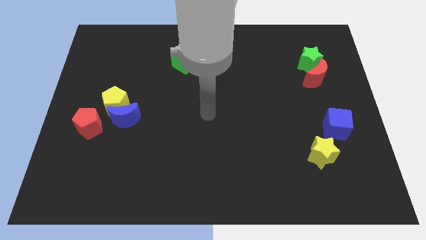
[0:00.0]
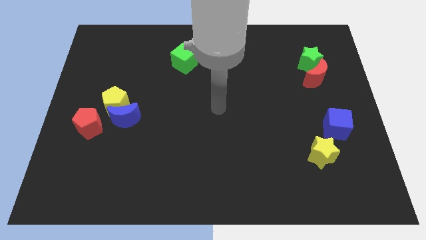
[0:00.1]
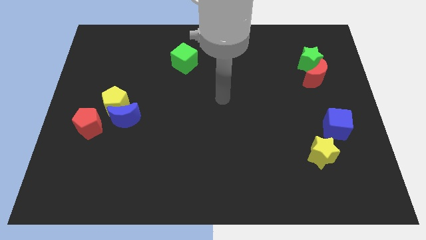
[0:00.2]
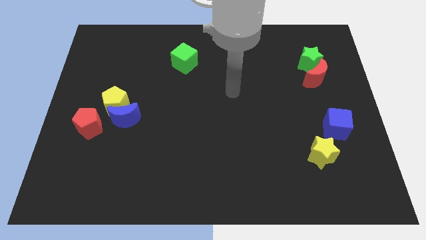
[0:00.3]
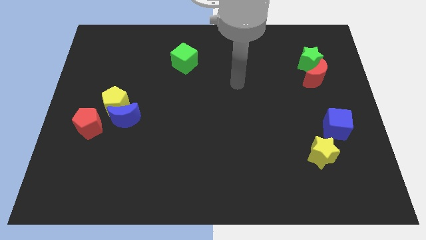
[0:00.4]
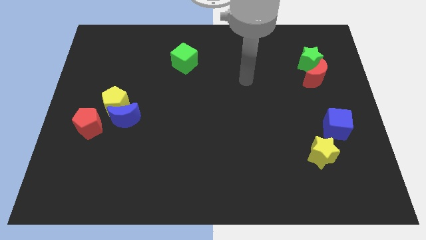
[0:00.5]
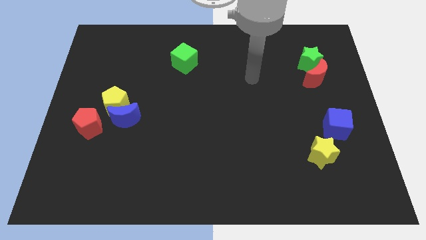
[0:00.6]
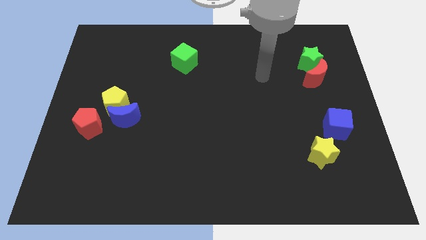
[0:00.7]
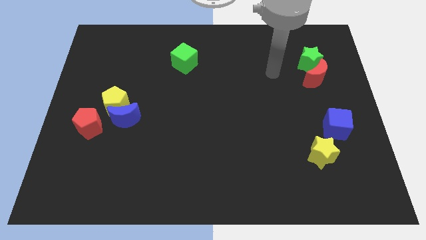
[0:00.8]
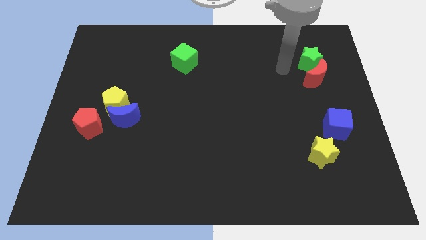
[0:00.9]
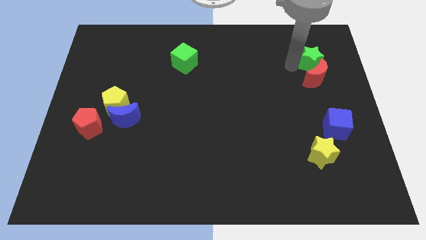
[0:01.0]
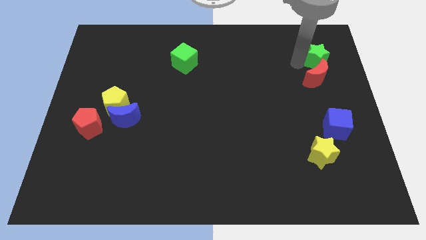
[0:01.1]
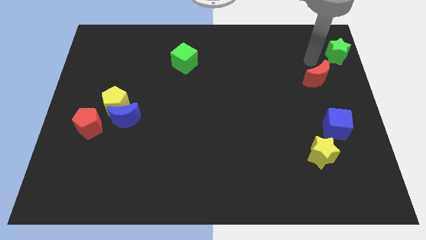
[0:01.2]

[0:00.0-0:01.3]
move the red moon away from the green star

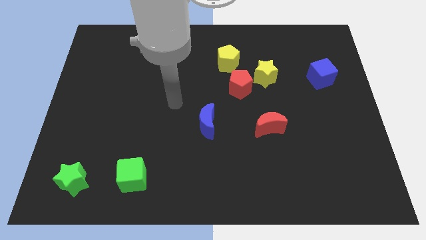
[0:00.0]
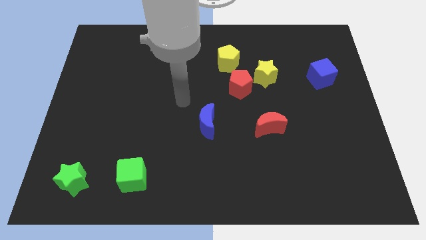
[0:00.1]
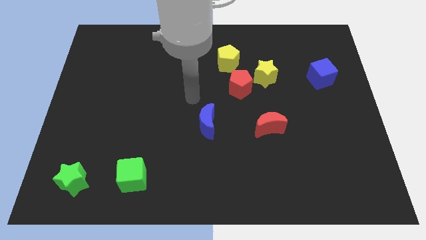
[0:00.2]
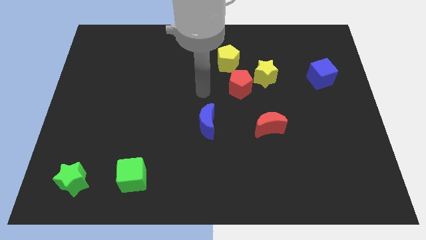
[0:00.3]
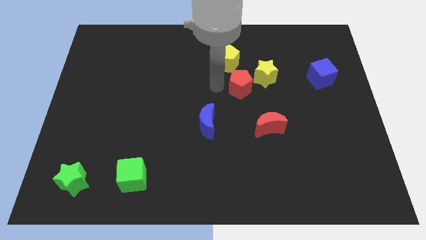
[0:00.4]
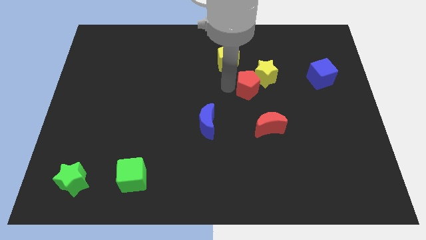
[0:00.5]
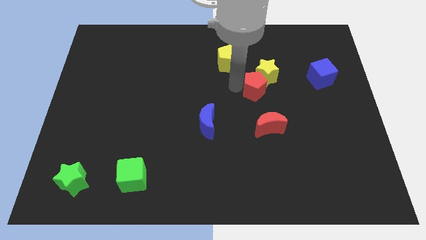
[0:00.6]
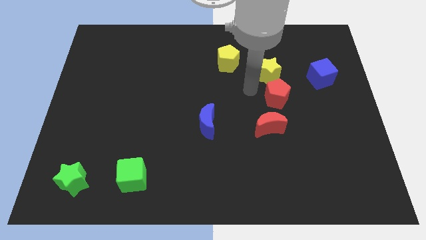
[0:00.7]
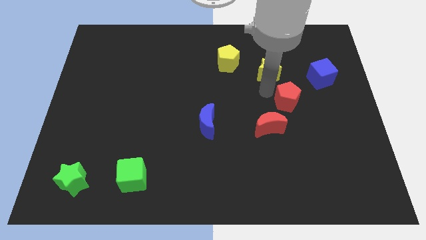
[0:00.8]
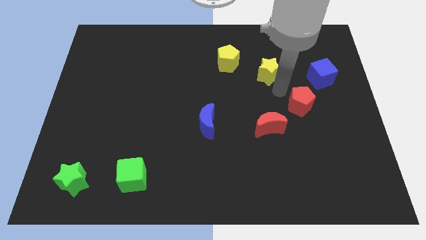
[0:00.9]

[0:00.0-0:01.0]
move the yellow star away from the red pentagon

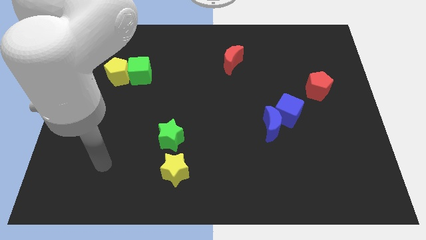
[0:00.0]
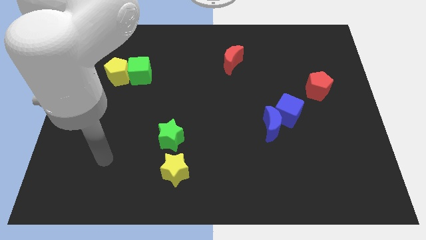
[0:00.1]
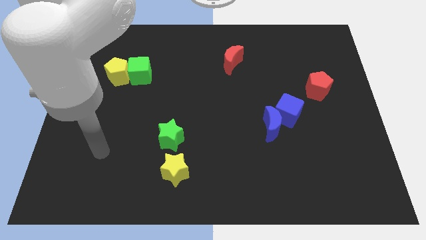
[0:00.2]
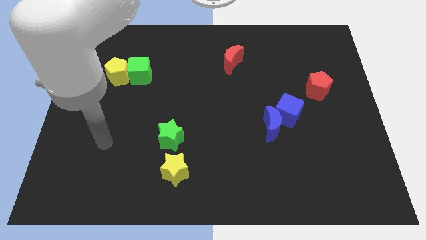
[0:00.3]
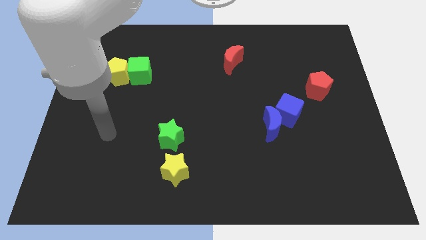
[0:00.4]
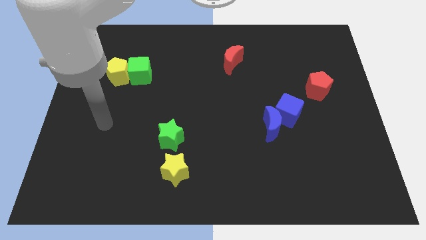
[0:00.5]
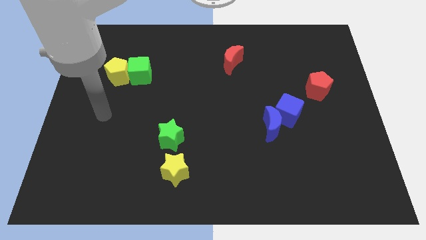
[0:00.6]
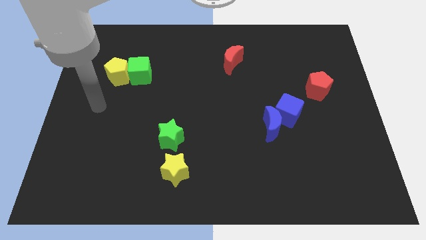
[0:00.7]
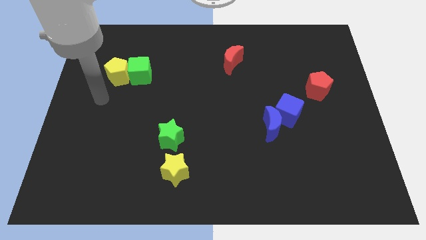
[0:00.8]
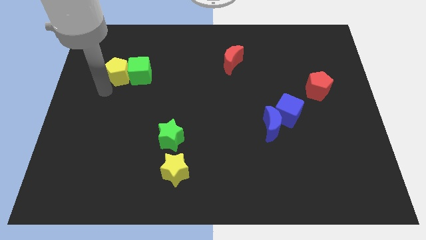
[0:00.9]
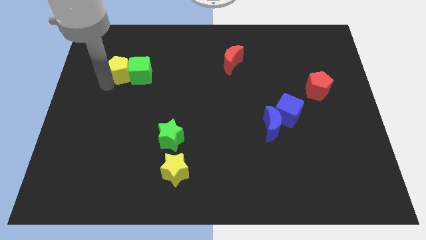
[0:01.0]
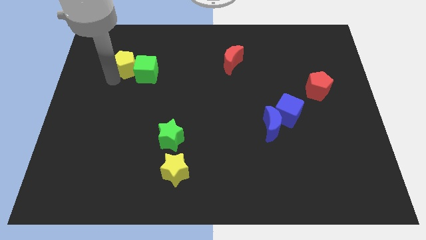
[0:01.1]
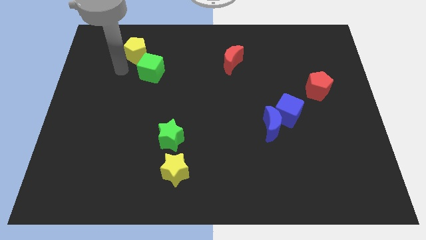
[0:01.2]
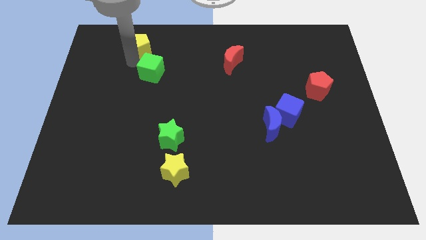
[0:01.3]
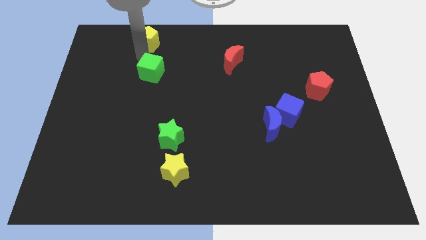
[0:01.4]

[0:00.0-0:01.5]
separate the green cube from the yellow pentagon

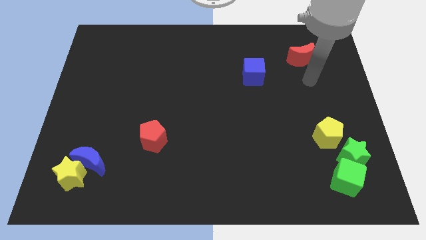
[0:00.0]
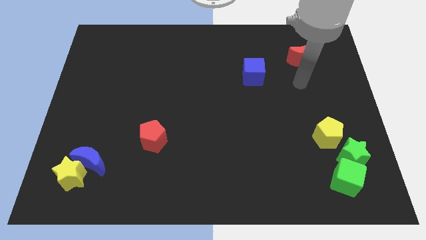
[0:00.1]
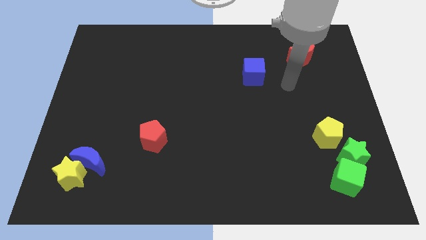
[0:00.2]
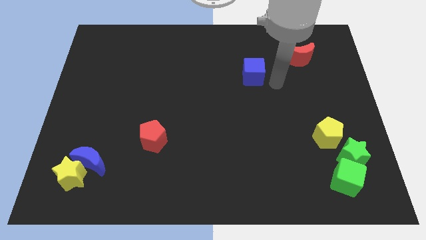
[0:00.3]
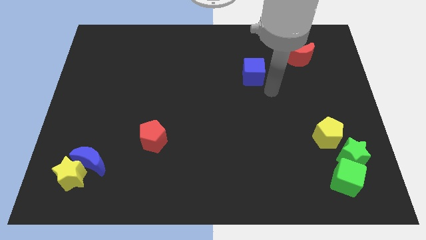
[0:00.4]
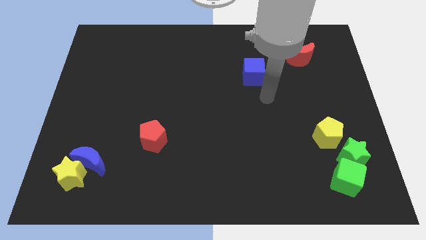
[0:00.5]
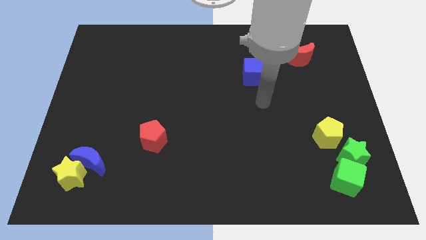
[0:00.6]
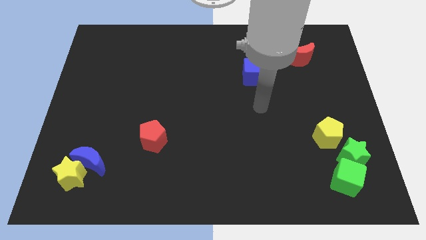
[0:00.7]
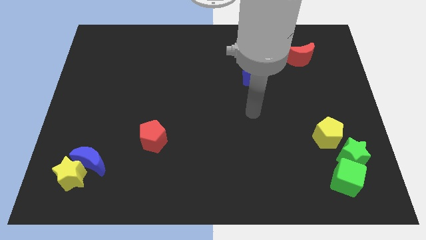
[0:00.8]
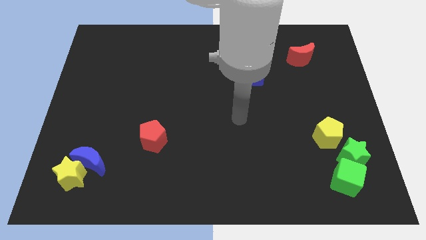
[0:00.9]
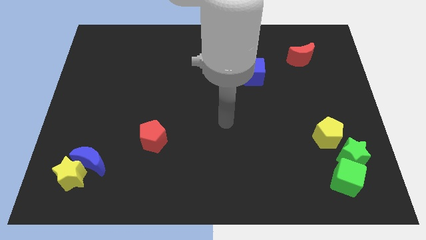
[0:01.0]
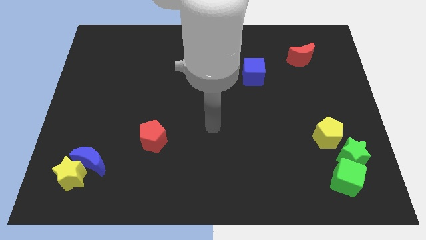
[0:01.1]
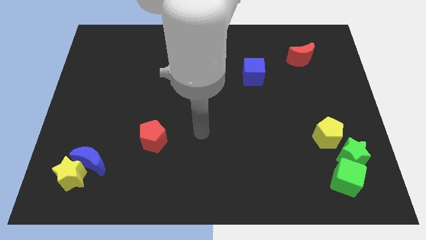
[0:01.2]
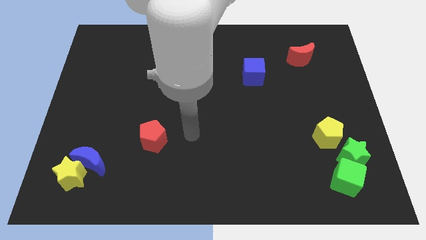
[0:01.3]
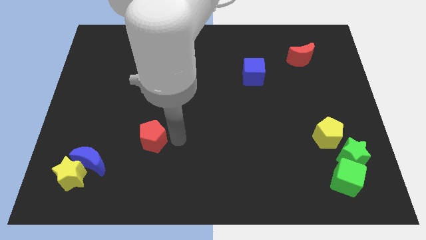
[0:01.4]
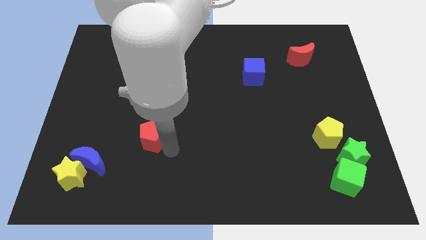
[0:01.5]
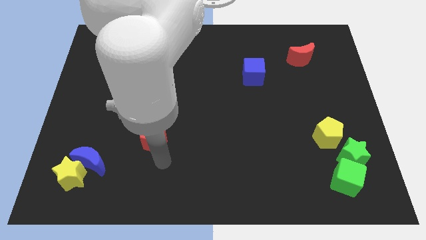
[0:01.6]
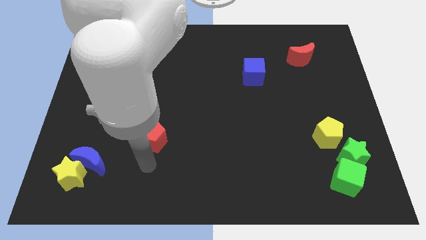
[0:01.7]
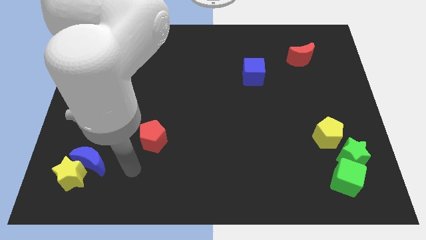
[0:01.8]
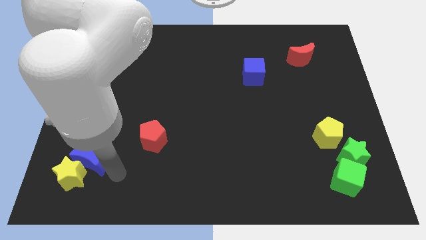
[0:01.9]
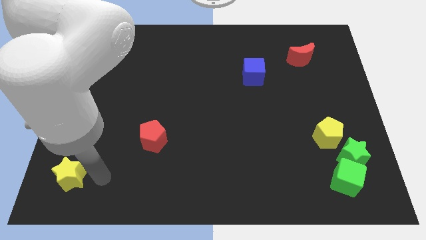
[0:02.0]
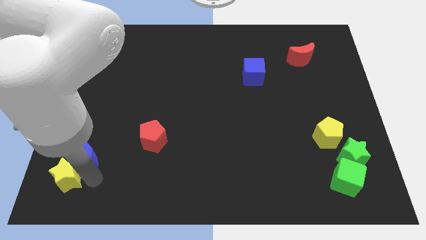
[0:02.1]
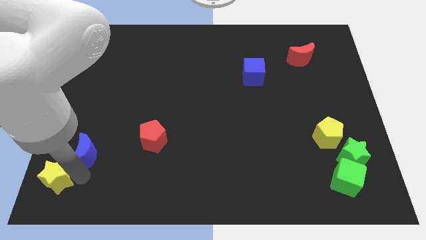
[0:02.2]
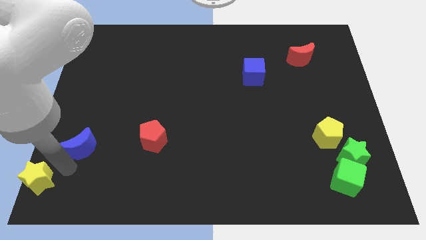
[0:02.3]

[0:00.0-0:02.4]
separate the blue moon from the yellow star

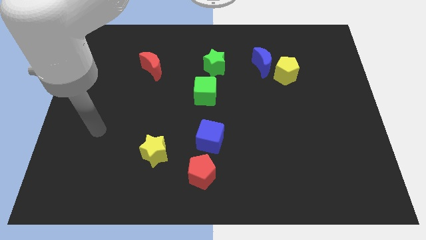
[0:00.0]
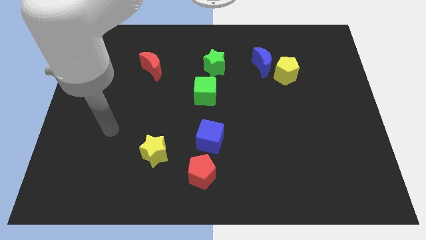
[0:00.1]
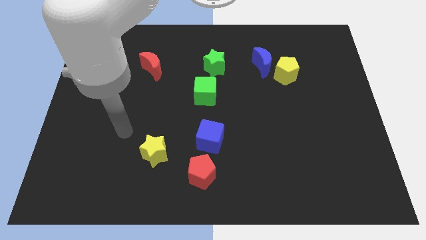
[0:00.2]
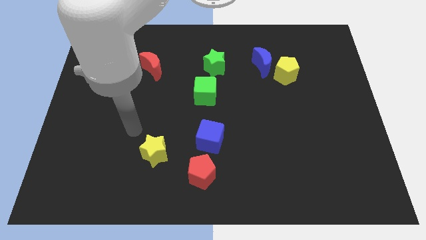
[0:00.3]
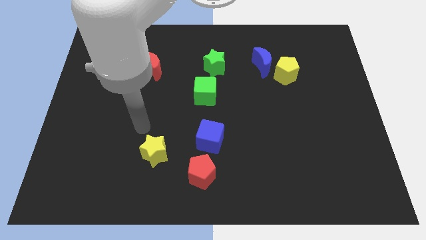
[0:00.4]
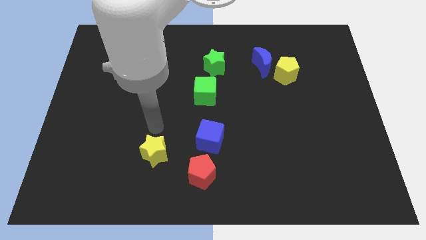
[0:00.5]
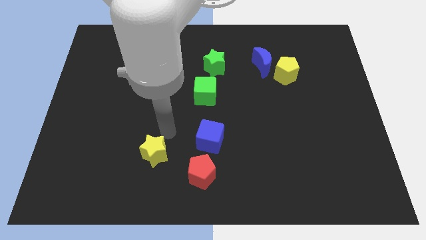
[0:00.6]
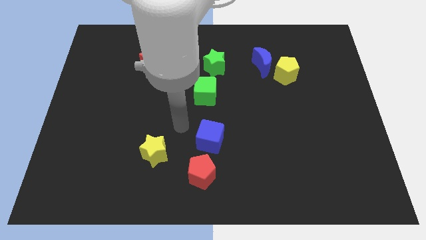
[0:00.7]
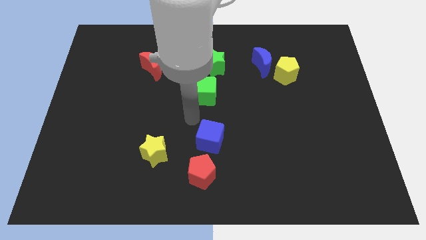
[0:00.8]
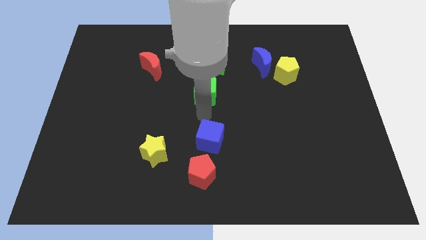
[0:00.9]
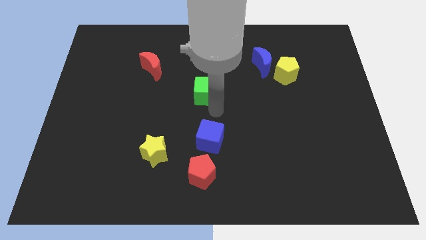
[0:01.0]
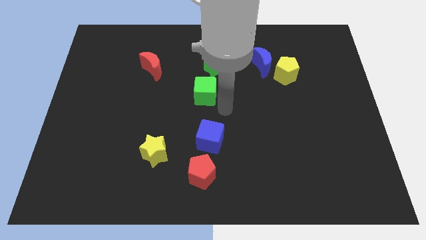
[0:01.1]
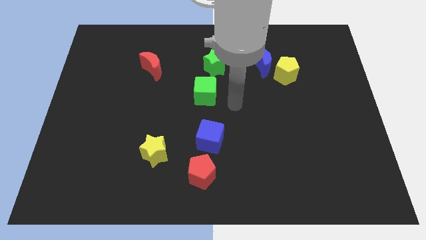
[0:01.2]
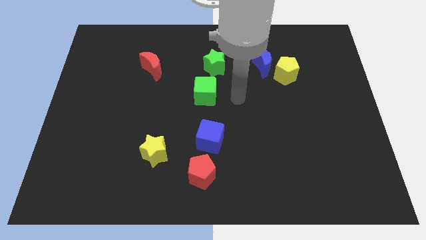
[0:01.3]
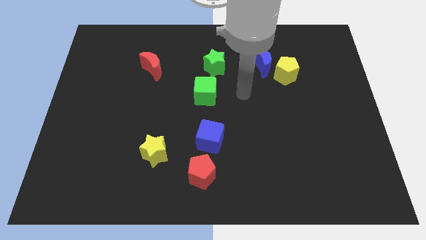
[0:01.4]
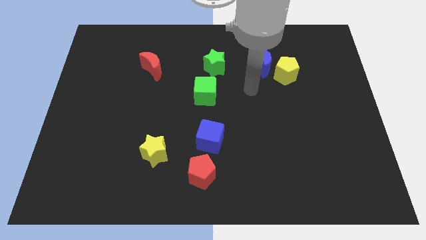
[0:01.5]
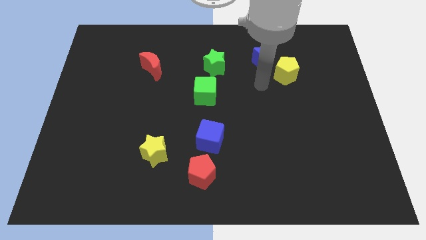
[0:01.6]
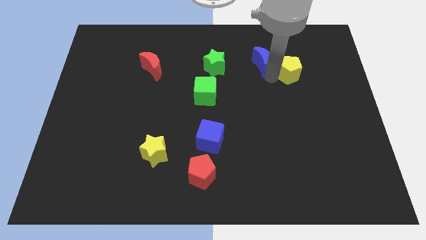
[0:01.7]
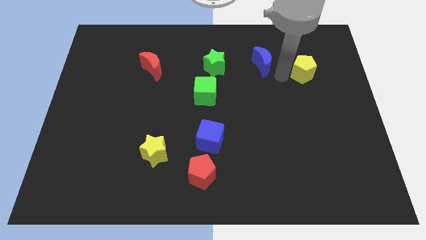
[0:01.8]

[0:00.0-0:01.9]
pull the blue moon apart from the yellow pentagon

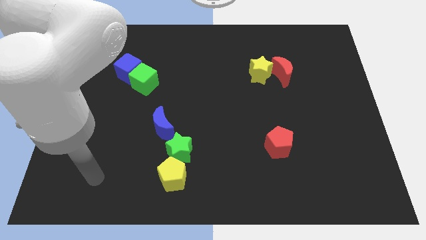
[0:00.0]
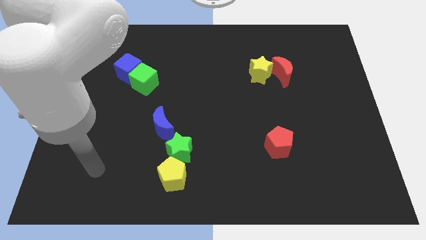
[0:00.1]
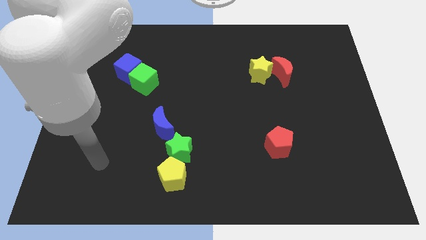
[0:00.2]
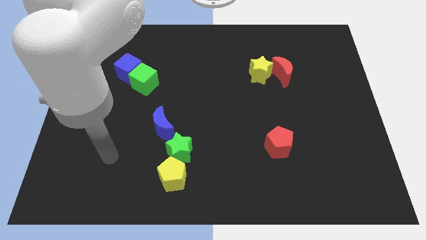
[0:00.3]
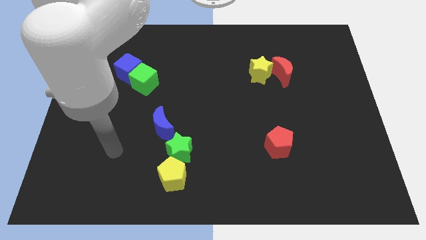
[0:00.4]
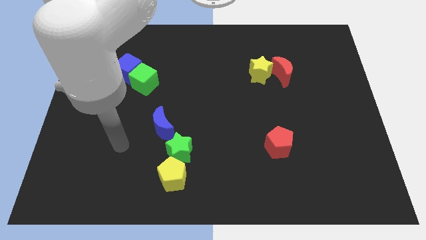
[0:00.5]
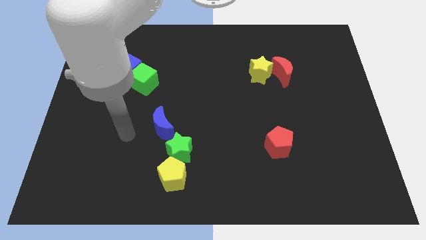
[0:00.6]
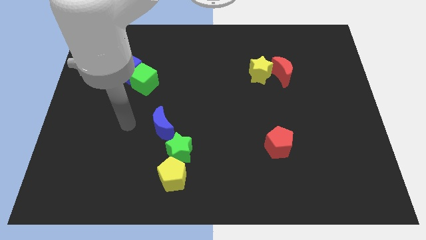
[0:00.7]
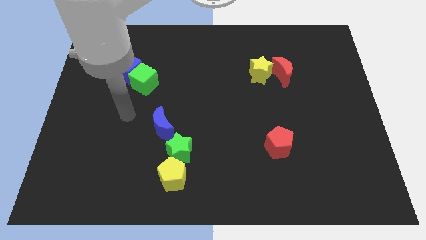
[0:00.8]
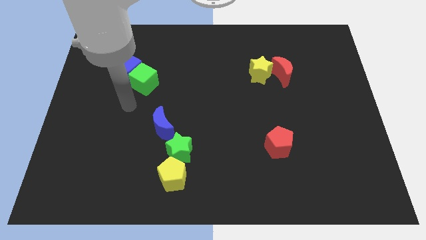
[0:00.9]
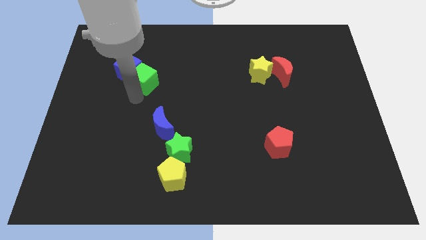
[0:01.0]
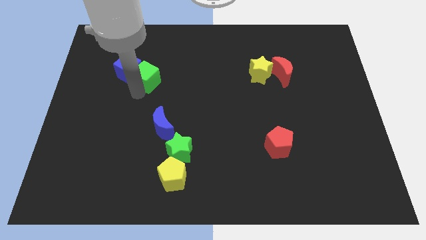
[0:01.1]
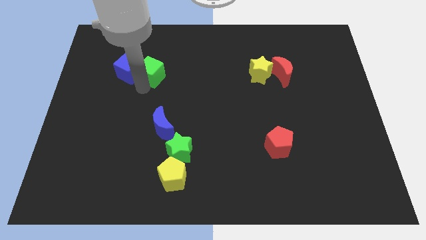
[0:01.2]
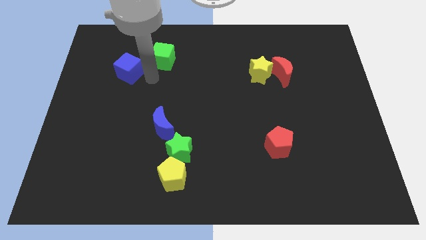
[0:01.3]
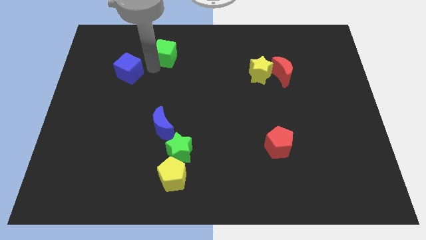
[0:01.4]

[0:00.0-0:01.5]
move the blue cube away from the green cube
